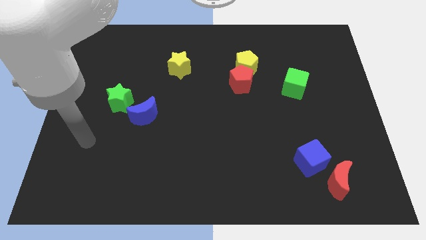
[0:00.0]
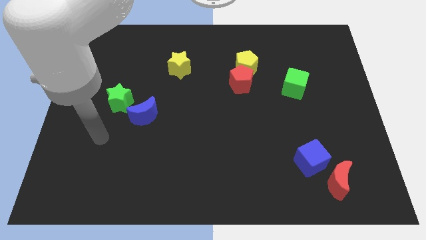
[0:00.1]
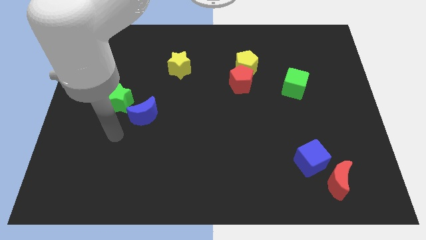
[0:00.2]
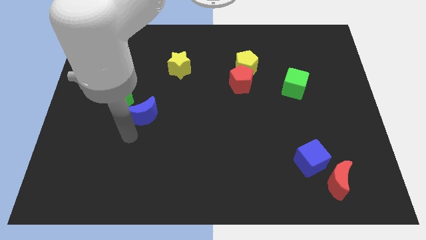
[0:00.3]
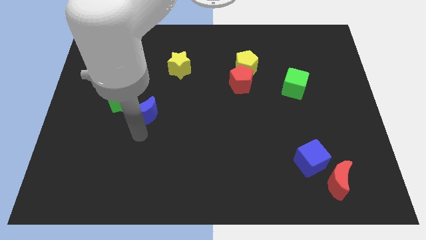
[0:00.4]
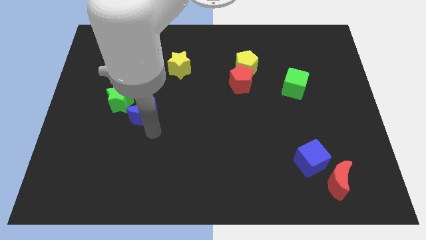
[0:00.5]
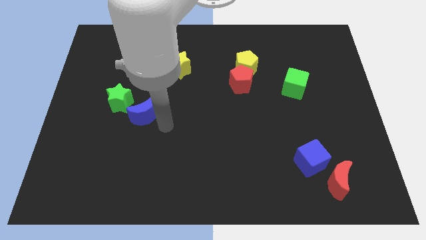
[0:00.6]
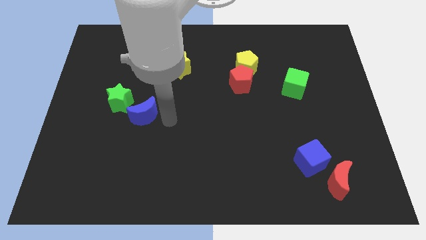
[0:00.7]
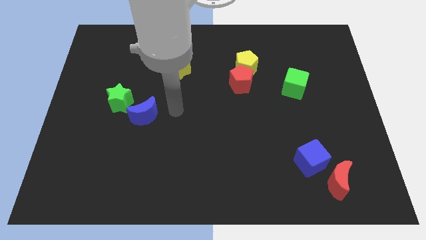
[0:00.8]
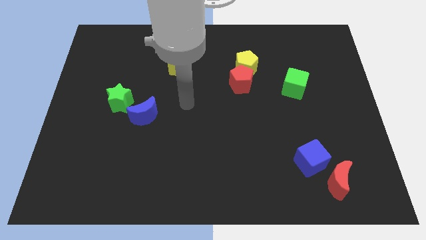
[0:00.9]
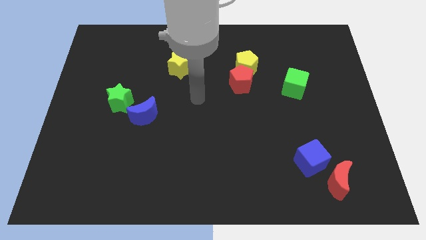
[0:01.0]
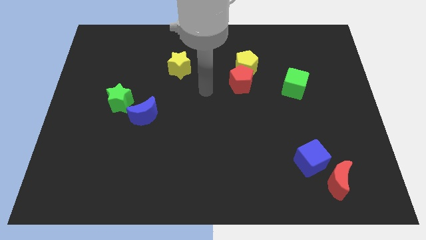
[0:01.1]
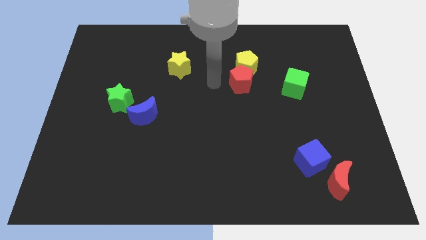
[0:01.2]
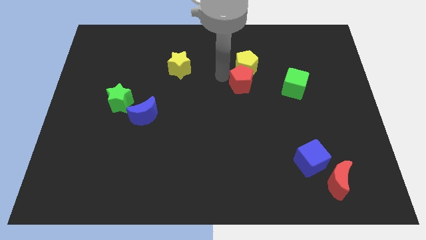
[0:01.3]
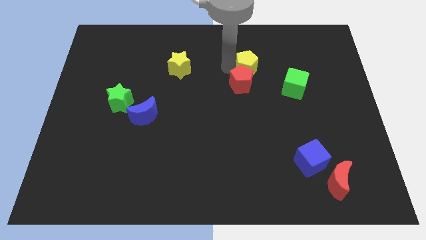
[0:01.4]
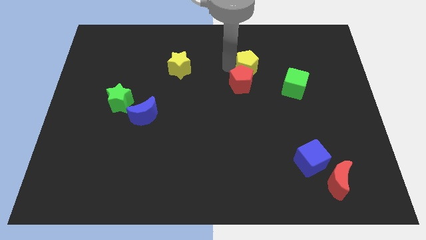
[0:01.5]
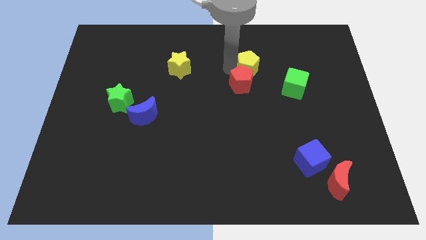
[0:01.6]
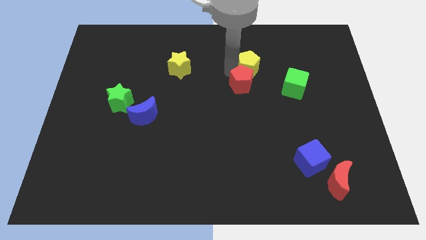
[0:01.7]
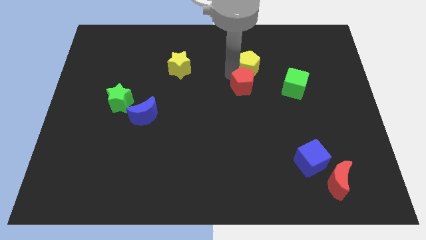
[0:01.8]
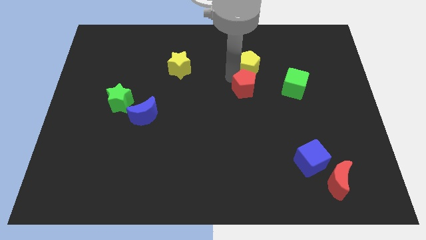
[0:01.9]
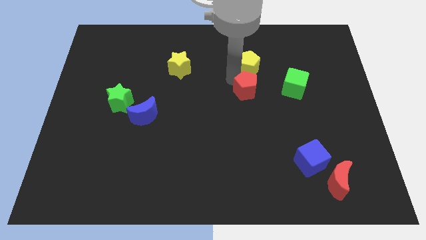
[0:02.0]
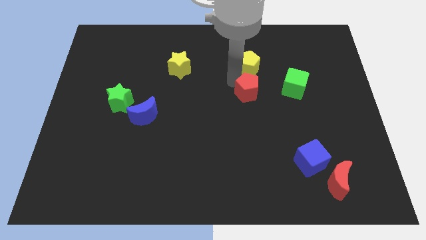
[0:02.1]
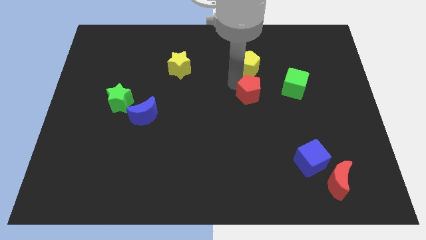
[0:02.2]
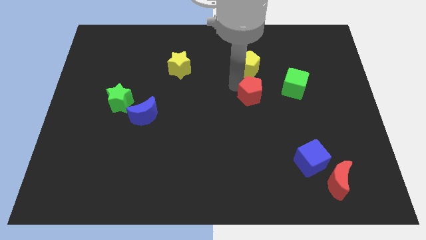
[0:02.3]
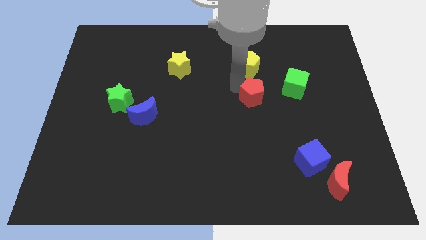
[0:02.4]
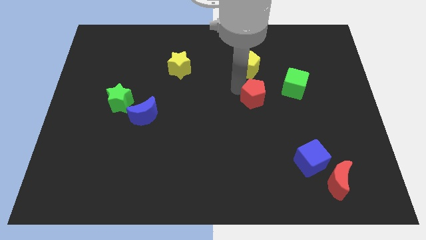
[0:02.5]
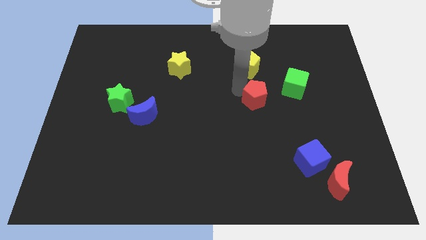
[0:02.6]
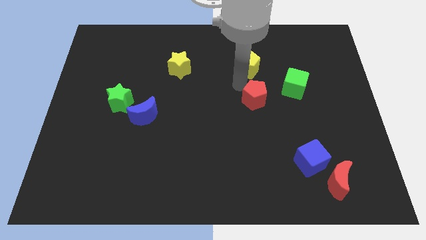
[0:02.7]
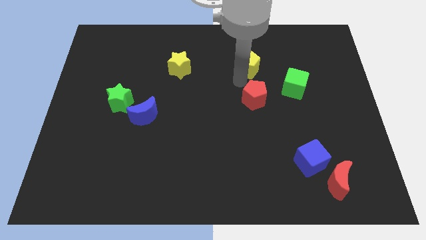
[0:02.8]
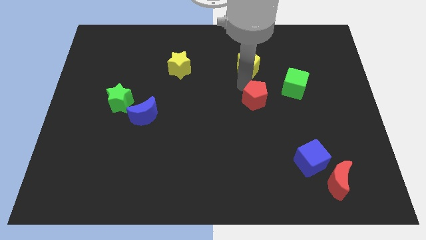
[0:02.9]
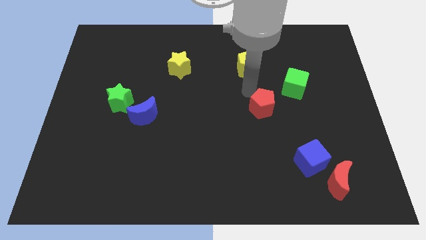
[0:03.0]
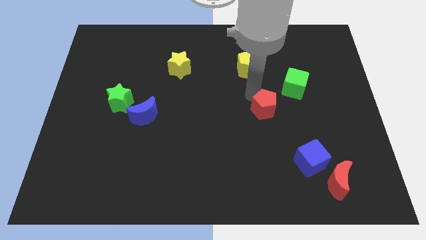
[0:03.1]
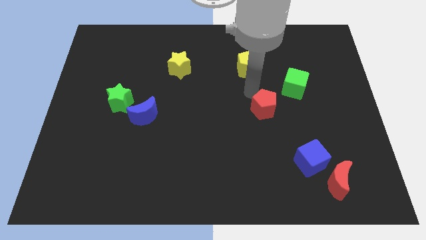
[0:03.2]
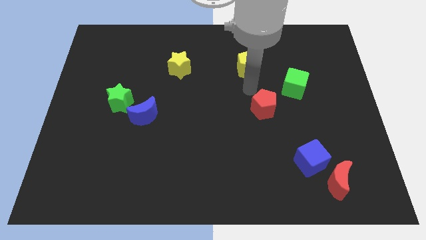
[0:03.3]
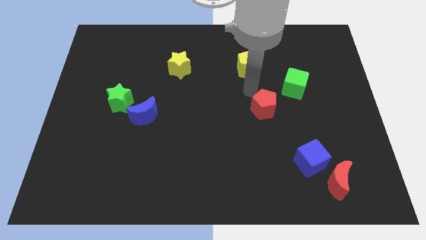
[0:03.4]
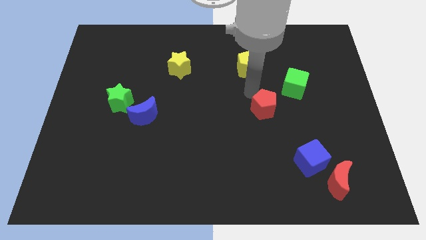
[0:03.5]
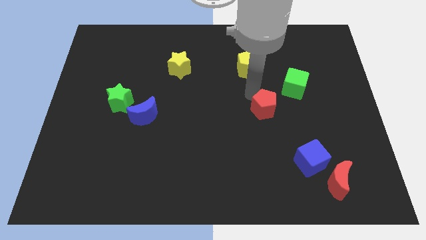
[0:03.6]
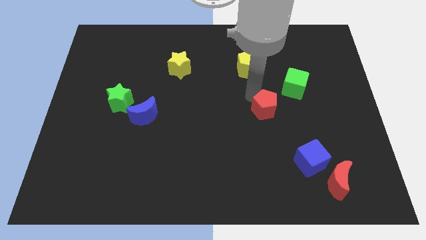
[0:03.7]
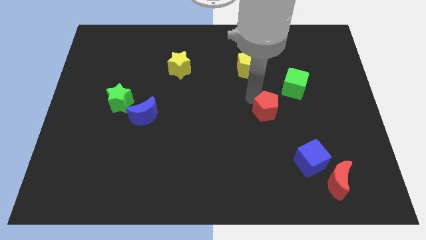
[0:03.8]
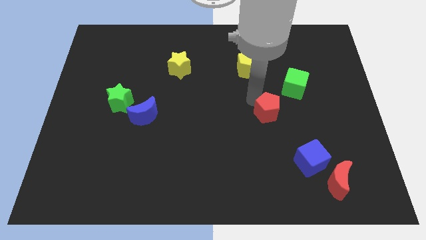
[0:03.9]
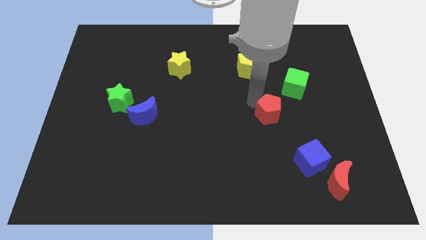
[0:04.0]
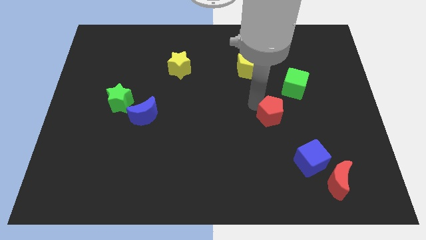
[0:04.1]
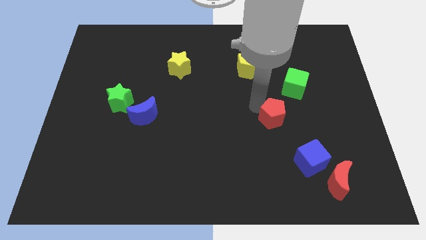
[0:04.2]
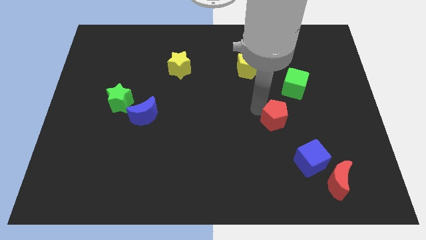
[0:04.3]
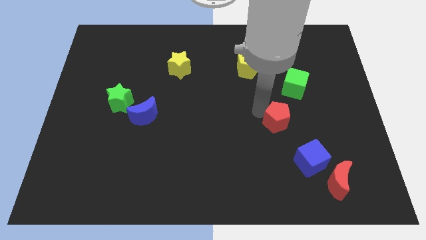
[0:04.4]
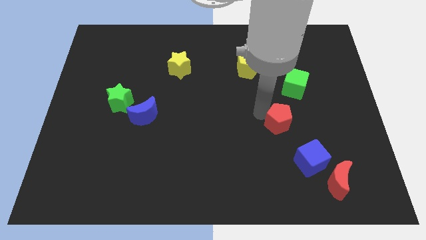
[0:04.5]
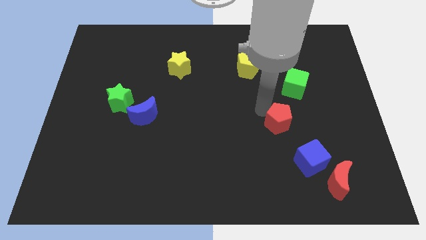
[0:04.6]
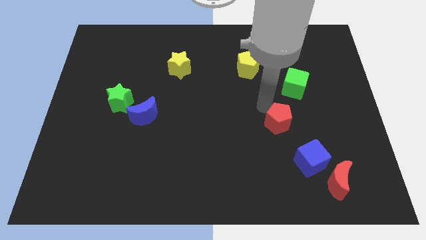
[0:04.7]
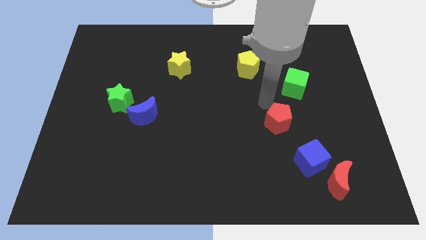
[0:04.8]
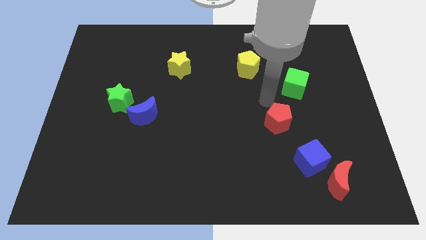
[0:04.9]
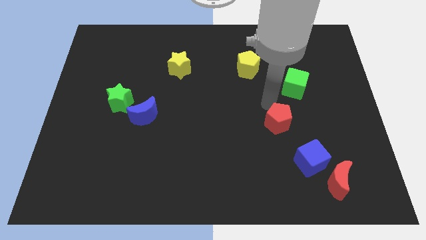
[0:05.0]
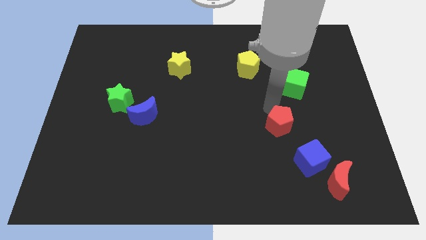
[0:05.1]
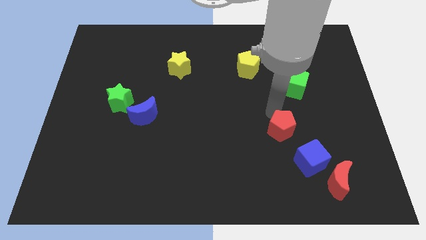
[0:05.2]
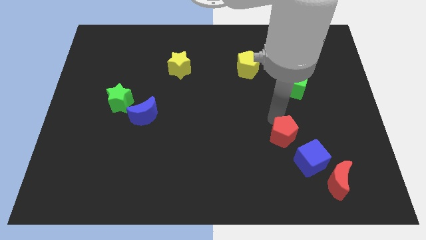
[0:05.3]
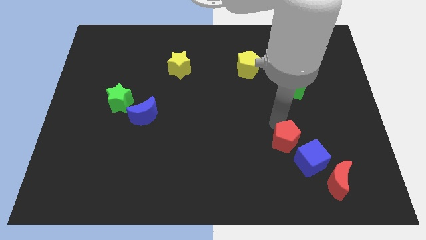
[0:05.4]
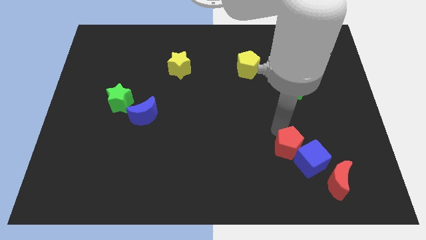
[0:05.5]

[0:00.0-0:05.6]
put the red pentagon towards the blue cube

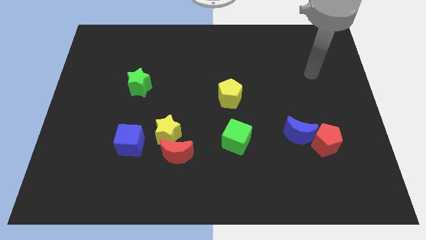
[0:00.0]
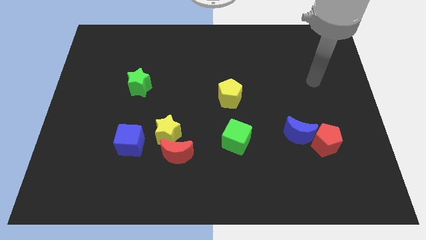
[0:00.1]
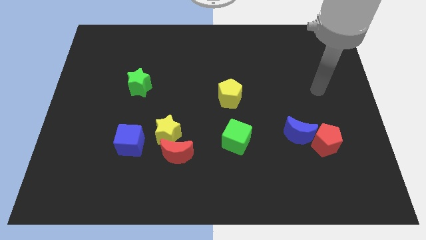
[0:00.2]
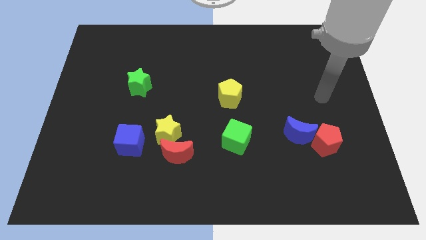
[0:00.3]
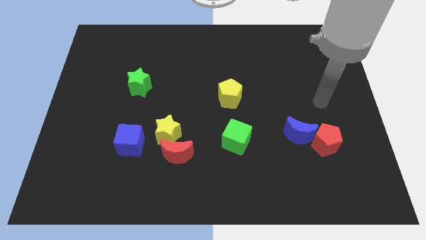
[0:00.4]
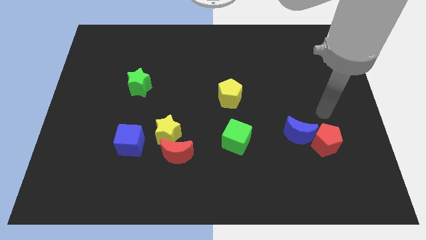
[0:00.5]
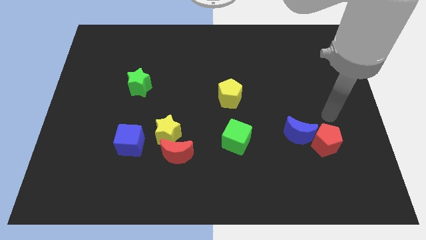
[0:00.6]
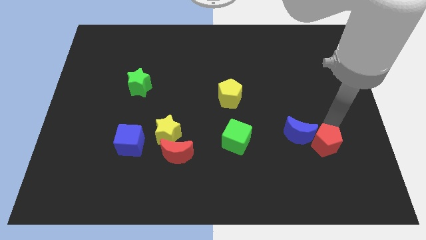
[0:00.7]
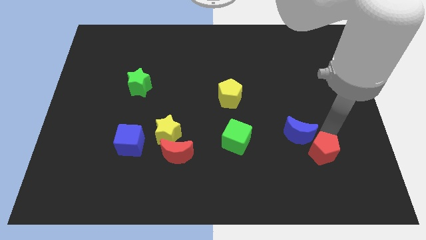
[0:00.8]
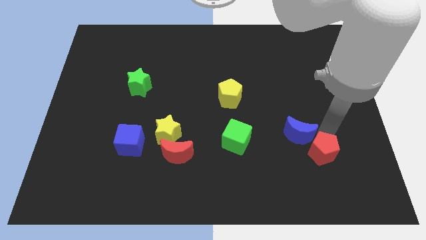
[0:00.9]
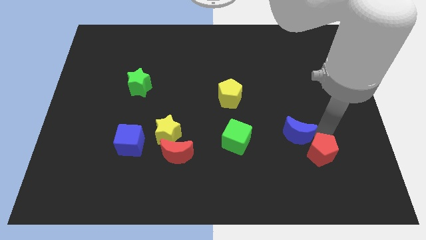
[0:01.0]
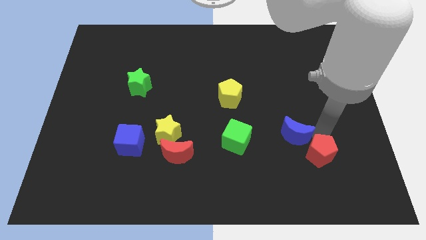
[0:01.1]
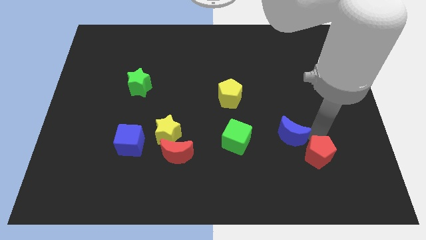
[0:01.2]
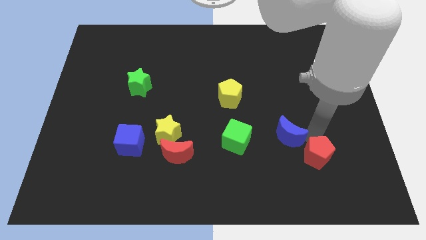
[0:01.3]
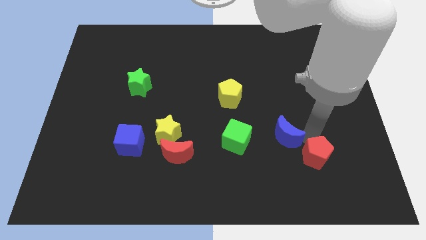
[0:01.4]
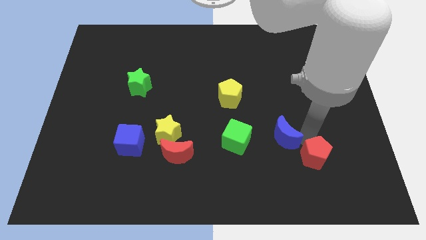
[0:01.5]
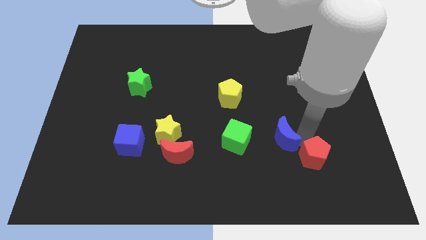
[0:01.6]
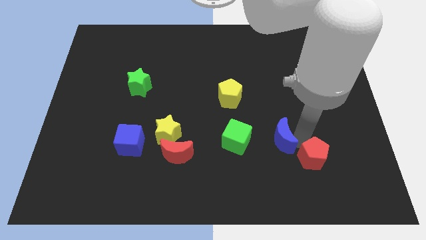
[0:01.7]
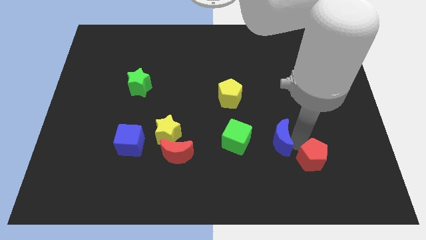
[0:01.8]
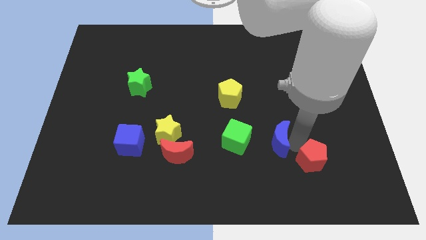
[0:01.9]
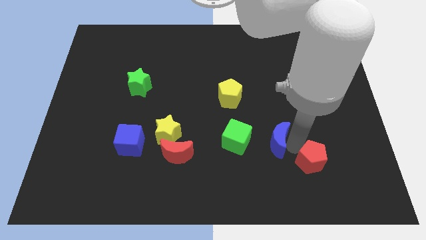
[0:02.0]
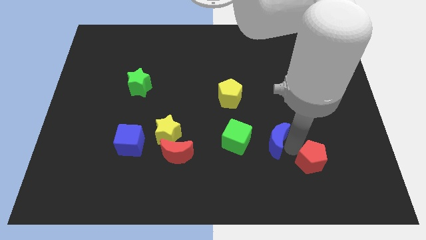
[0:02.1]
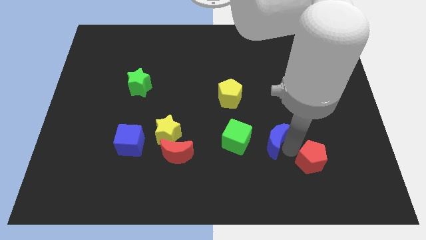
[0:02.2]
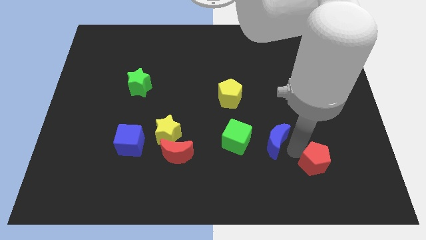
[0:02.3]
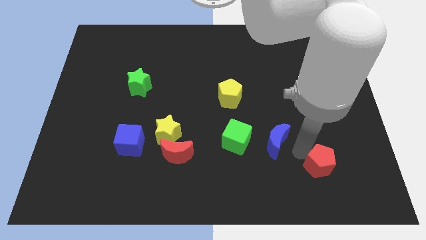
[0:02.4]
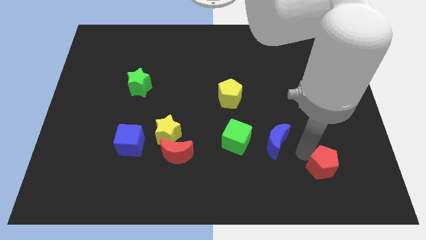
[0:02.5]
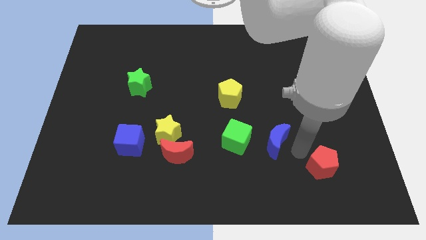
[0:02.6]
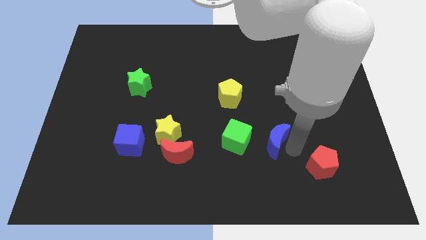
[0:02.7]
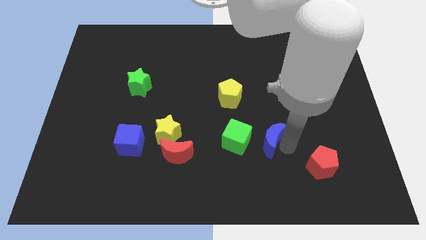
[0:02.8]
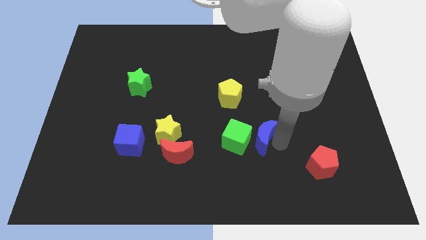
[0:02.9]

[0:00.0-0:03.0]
put the blue moon to the green cube
